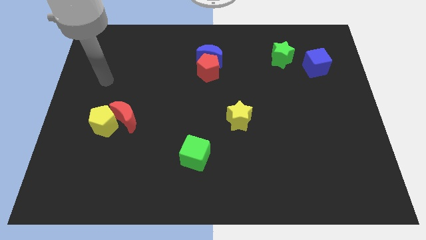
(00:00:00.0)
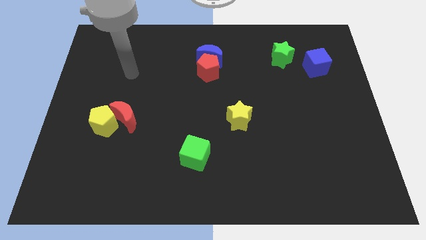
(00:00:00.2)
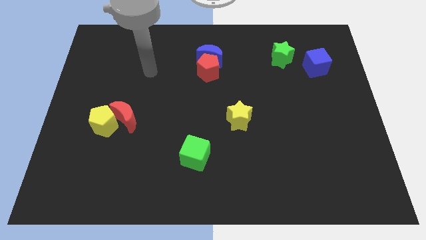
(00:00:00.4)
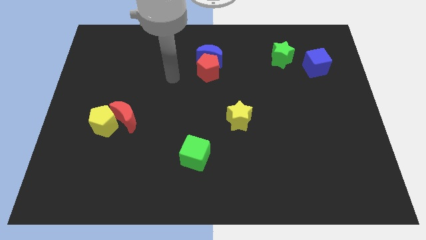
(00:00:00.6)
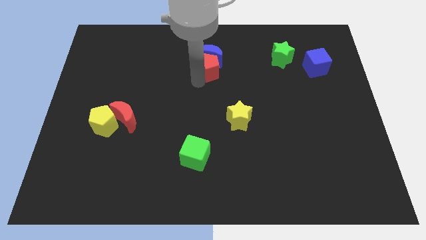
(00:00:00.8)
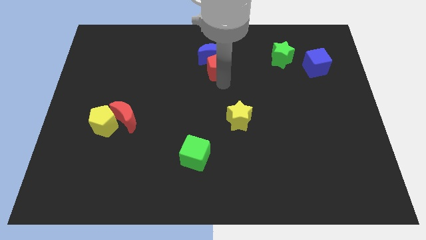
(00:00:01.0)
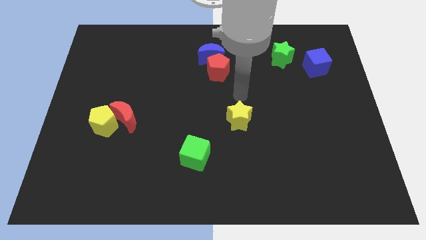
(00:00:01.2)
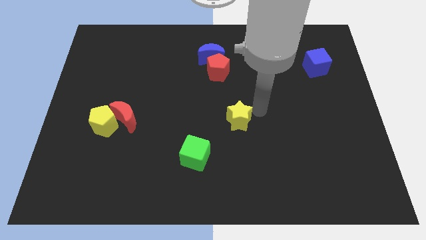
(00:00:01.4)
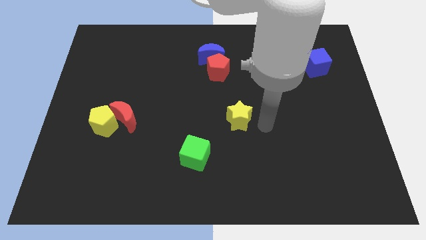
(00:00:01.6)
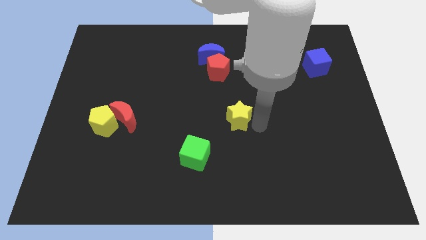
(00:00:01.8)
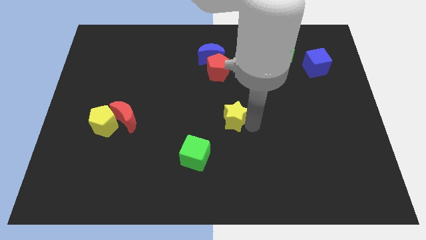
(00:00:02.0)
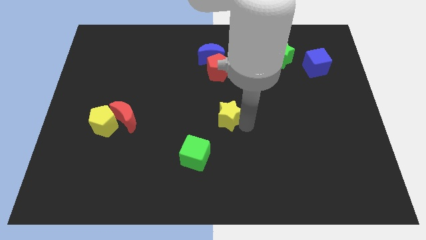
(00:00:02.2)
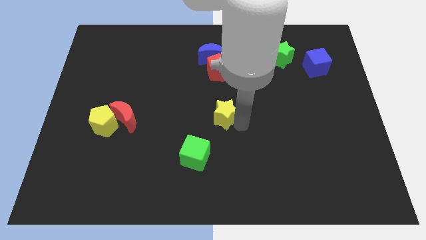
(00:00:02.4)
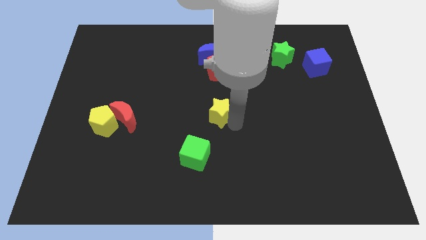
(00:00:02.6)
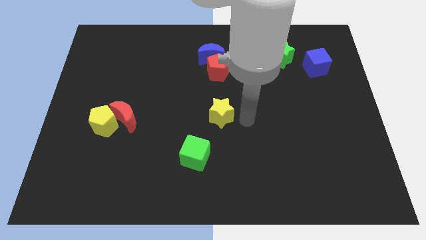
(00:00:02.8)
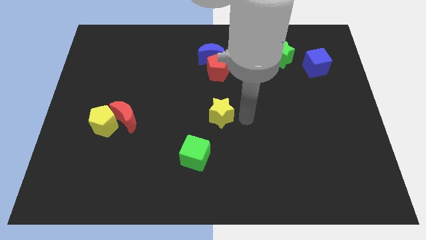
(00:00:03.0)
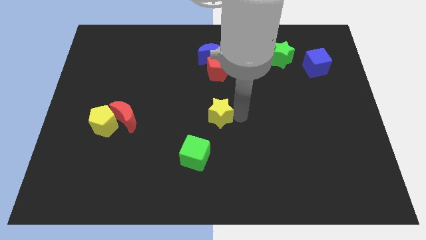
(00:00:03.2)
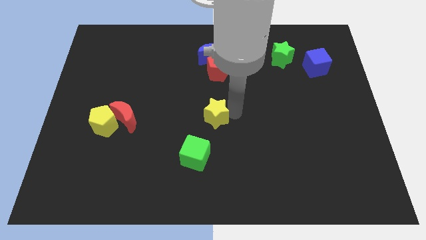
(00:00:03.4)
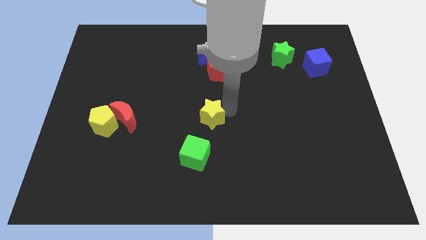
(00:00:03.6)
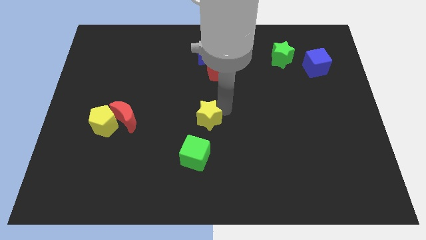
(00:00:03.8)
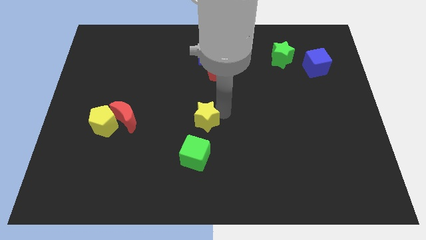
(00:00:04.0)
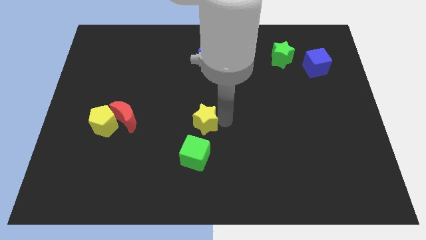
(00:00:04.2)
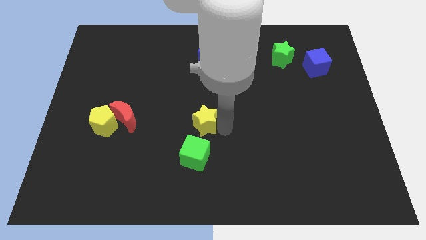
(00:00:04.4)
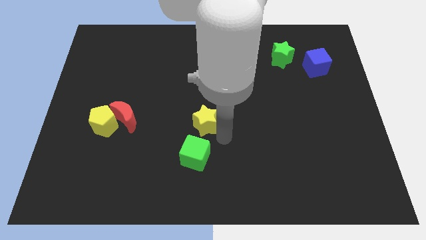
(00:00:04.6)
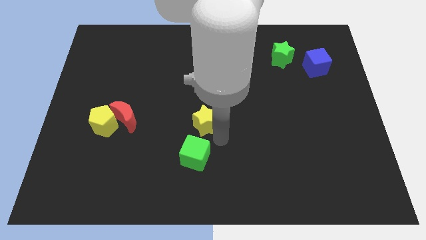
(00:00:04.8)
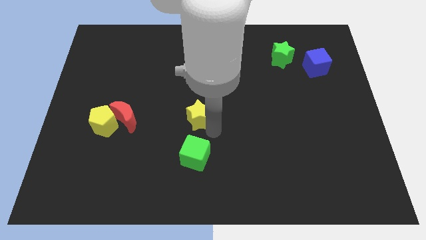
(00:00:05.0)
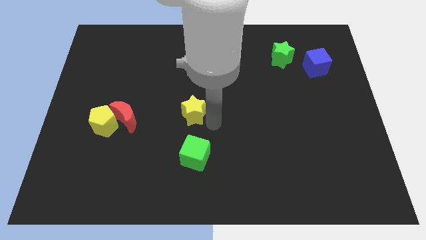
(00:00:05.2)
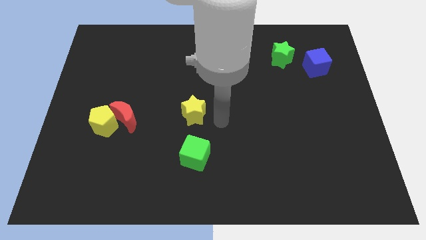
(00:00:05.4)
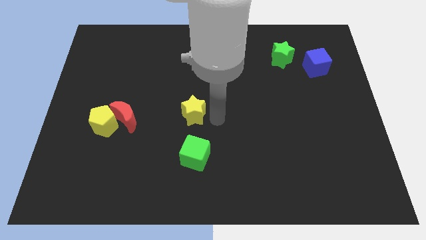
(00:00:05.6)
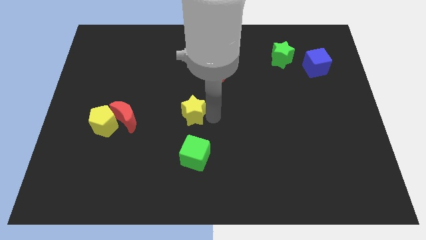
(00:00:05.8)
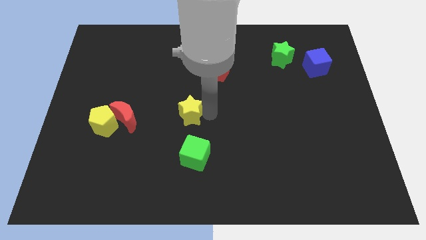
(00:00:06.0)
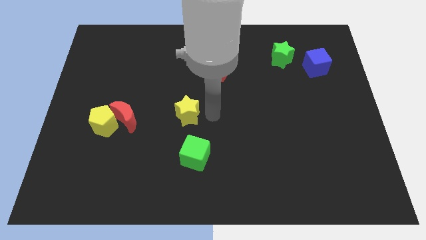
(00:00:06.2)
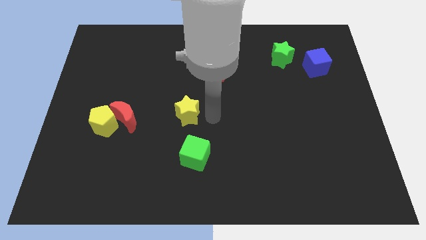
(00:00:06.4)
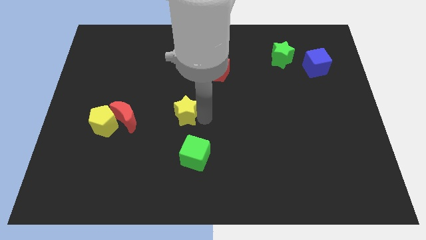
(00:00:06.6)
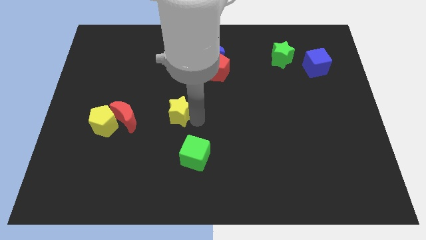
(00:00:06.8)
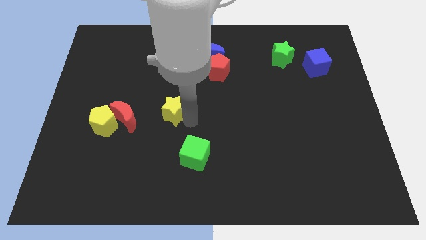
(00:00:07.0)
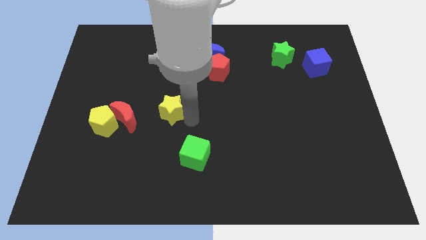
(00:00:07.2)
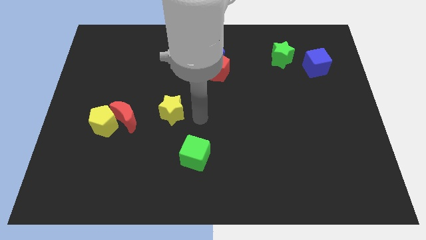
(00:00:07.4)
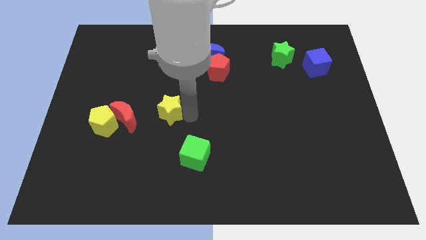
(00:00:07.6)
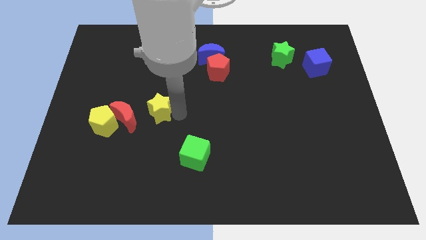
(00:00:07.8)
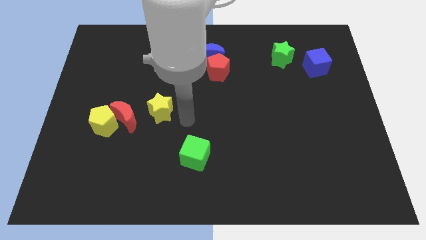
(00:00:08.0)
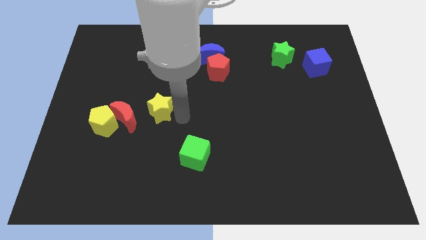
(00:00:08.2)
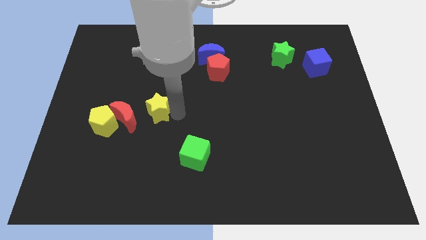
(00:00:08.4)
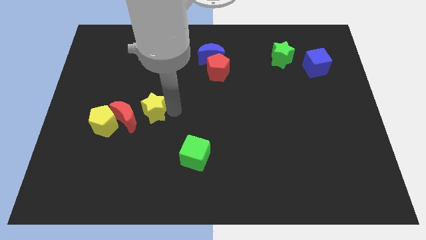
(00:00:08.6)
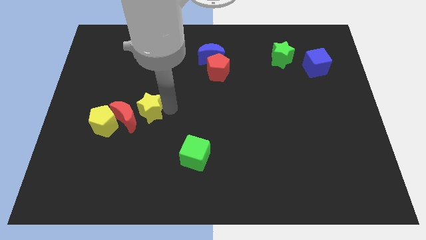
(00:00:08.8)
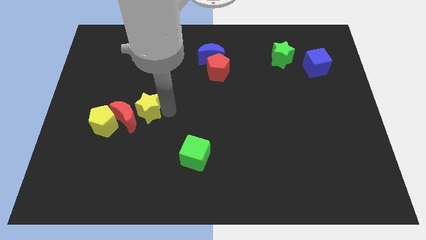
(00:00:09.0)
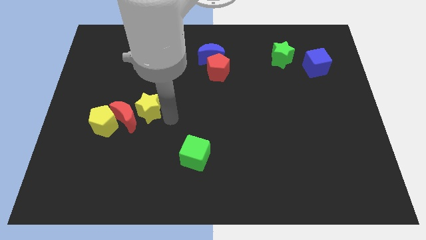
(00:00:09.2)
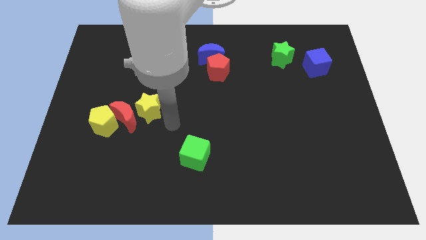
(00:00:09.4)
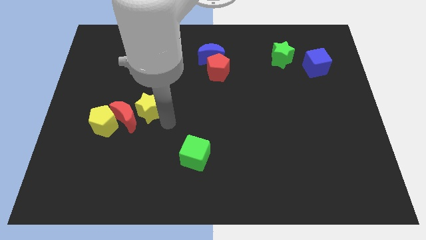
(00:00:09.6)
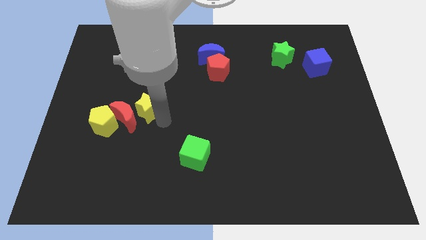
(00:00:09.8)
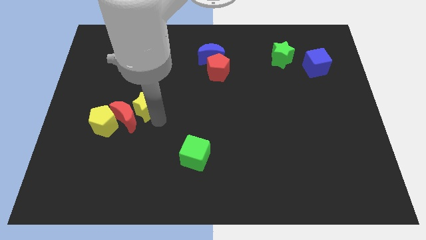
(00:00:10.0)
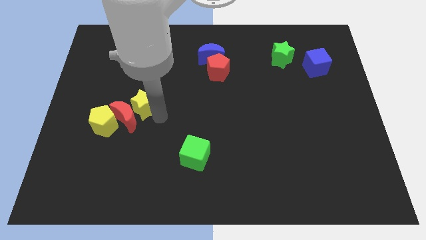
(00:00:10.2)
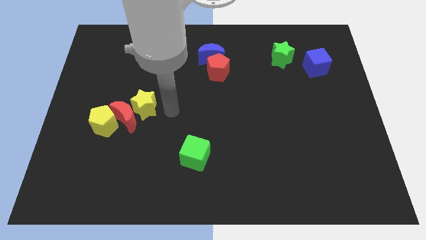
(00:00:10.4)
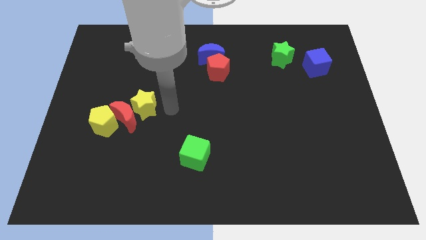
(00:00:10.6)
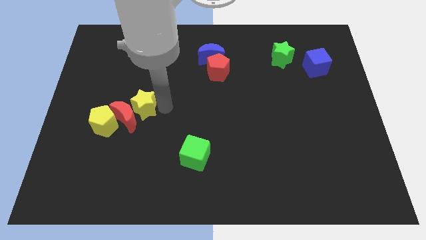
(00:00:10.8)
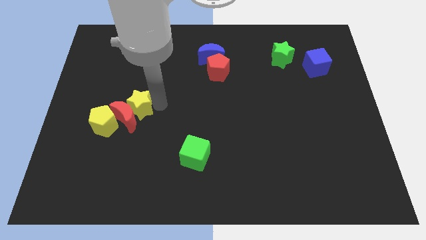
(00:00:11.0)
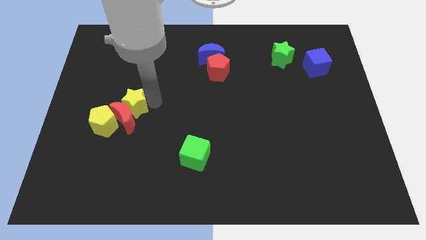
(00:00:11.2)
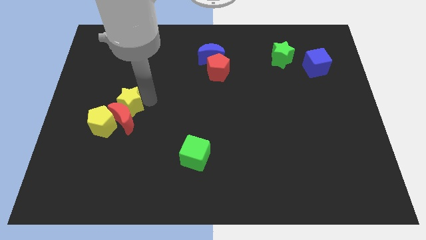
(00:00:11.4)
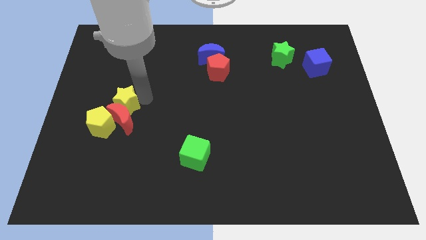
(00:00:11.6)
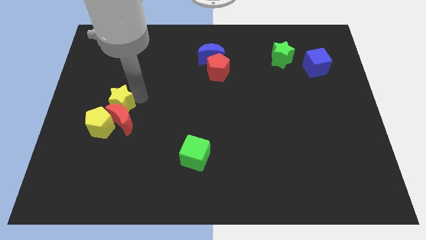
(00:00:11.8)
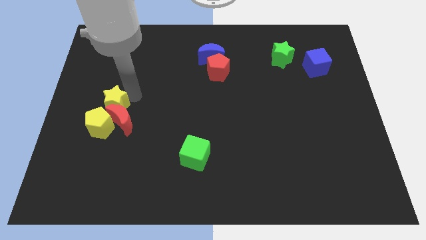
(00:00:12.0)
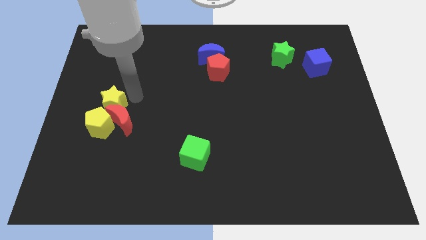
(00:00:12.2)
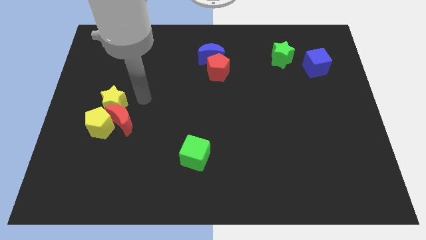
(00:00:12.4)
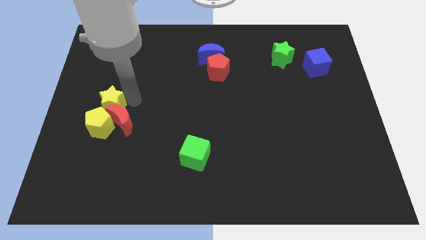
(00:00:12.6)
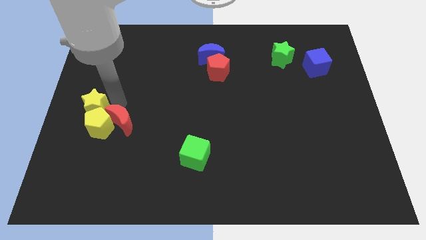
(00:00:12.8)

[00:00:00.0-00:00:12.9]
move the yellow star to the left side of the board

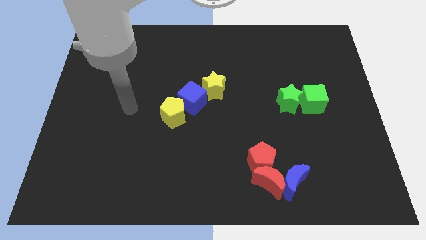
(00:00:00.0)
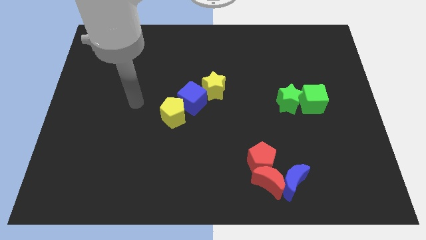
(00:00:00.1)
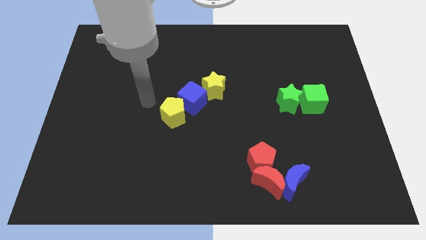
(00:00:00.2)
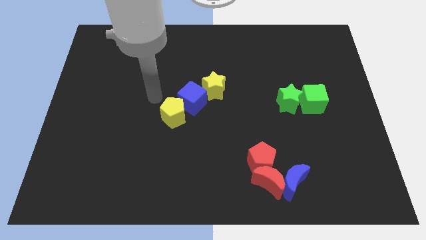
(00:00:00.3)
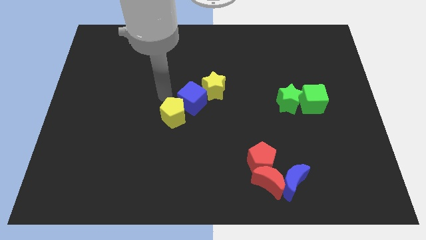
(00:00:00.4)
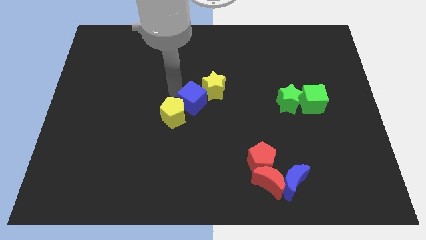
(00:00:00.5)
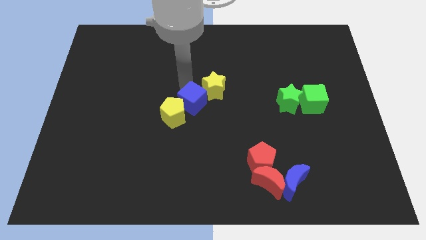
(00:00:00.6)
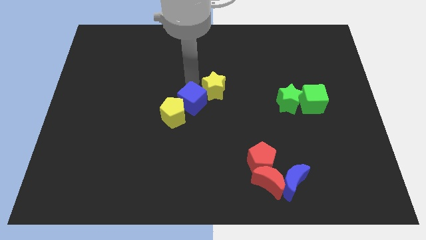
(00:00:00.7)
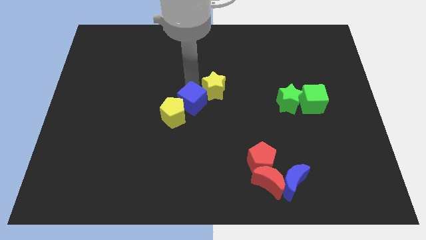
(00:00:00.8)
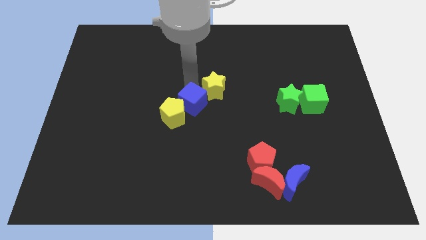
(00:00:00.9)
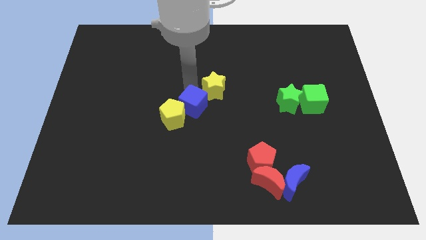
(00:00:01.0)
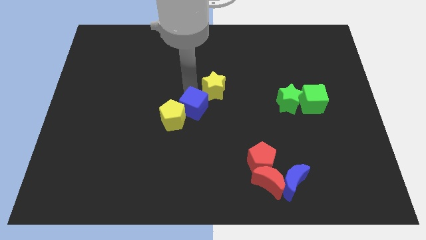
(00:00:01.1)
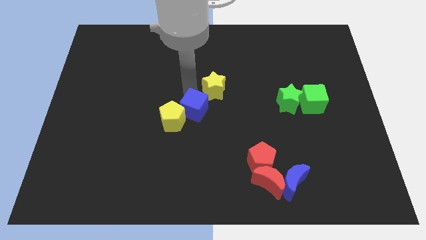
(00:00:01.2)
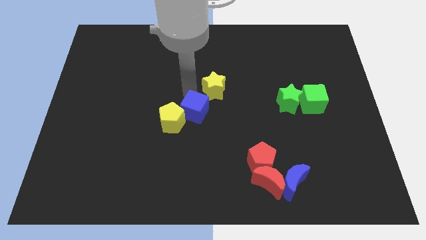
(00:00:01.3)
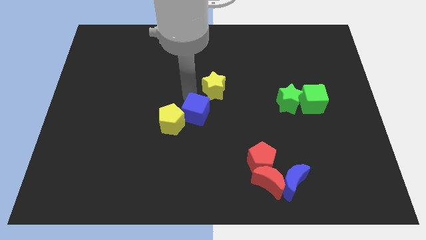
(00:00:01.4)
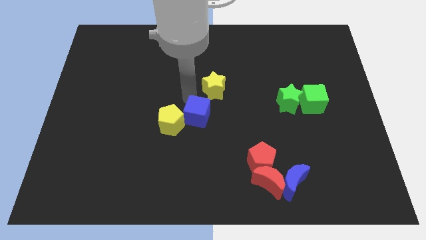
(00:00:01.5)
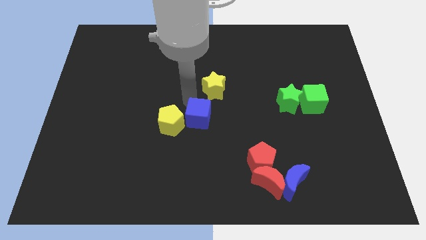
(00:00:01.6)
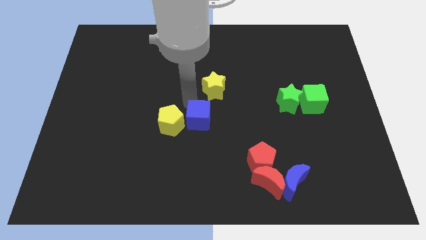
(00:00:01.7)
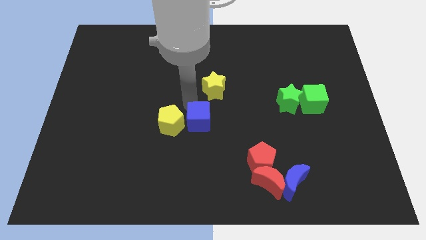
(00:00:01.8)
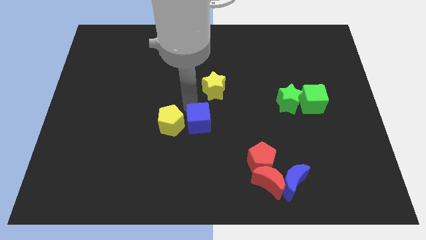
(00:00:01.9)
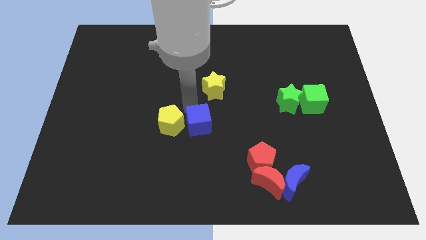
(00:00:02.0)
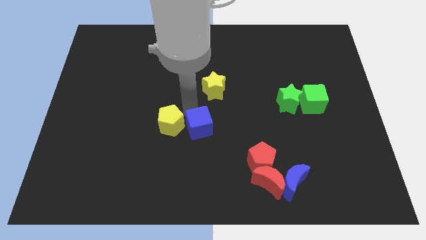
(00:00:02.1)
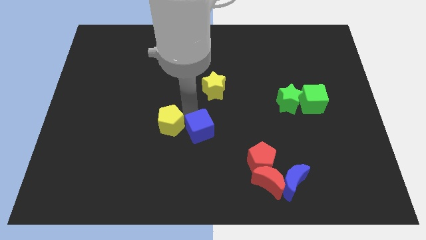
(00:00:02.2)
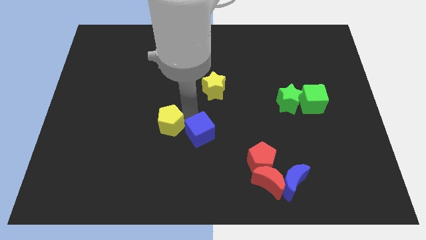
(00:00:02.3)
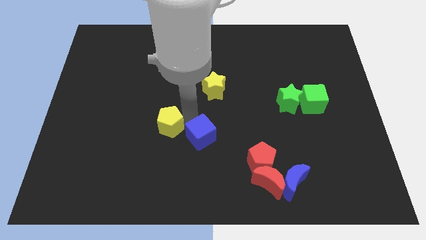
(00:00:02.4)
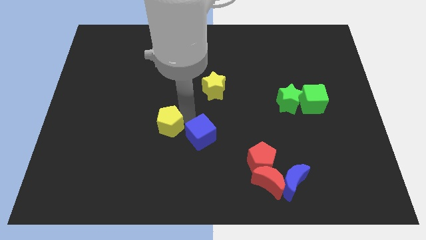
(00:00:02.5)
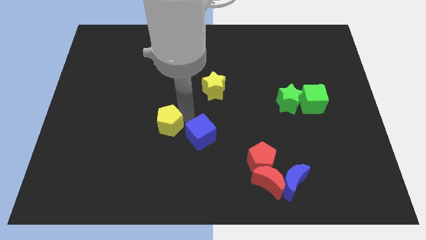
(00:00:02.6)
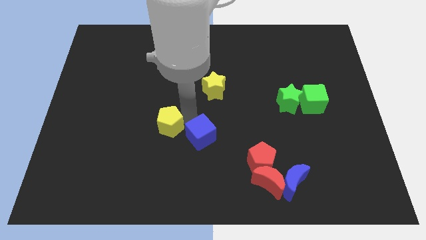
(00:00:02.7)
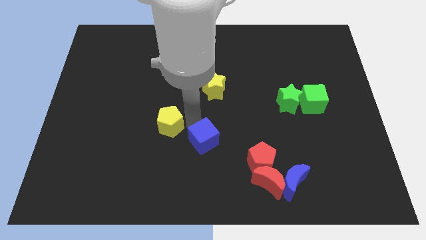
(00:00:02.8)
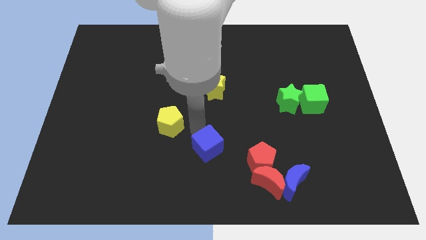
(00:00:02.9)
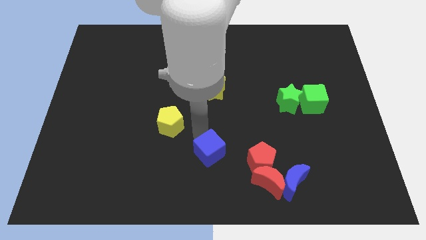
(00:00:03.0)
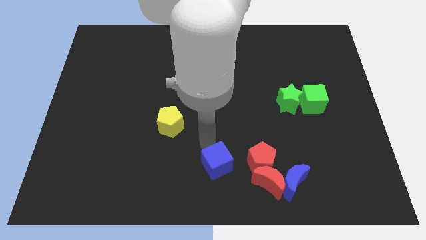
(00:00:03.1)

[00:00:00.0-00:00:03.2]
push the blue cube to the bottom side
